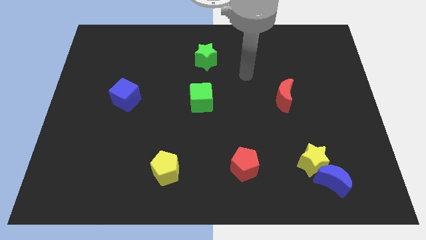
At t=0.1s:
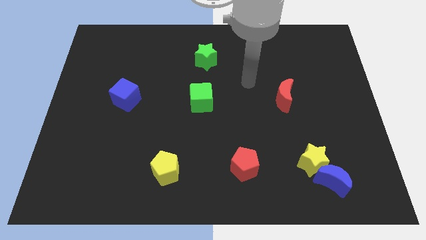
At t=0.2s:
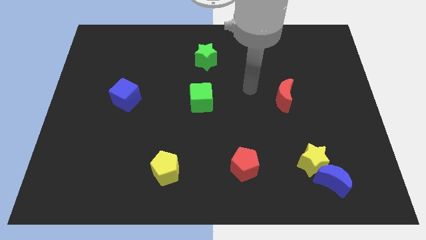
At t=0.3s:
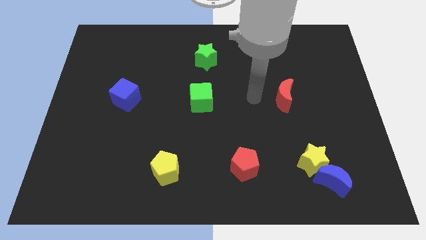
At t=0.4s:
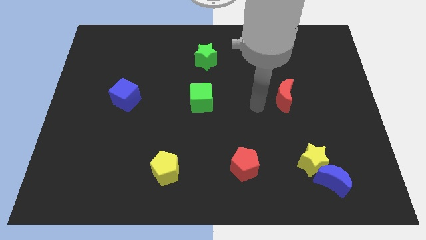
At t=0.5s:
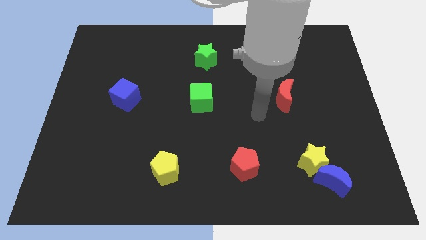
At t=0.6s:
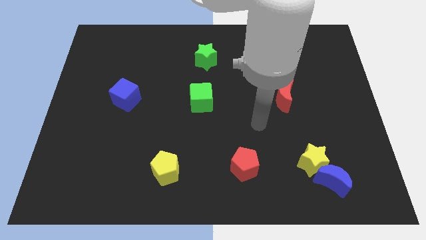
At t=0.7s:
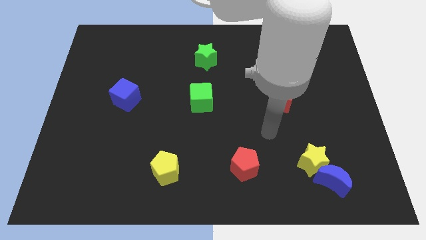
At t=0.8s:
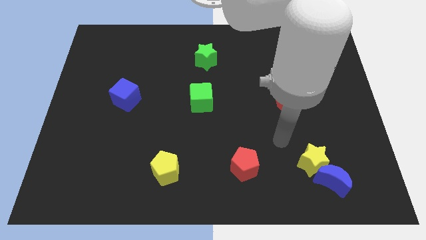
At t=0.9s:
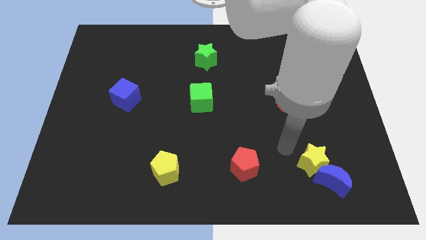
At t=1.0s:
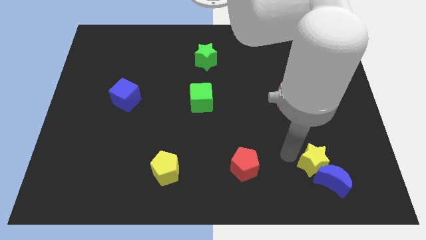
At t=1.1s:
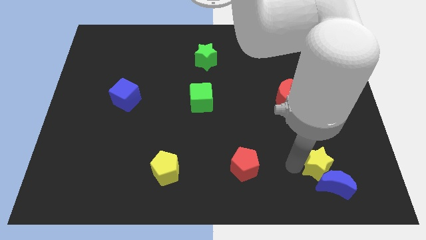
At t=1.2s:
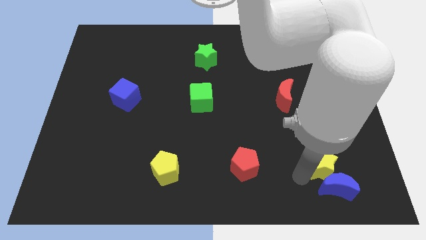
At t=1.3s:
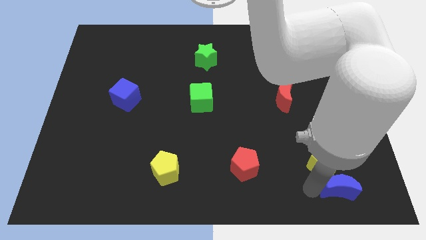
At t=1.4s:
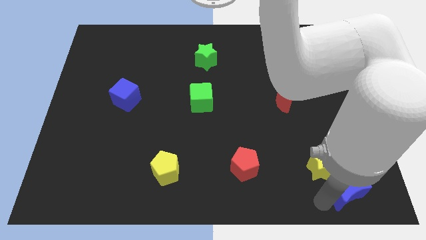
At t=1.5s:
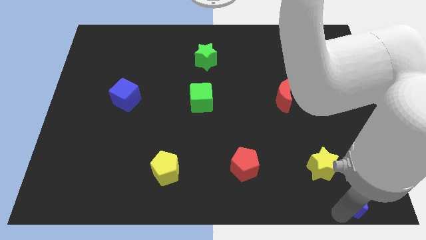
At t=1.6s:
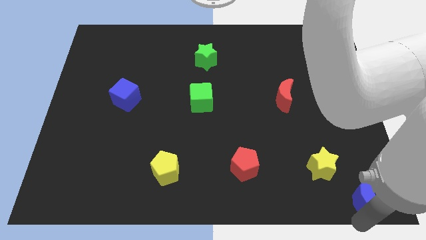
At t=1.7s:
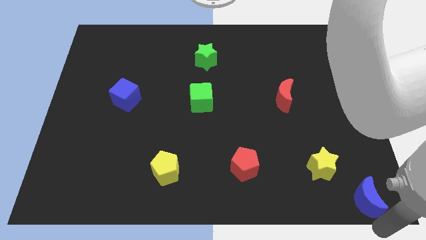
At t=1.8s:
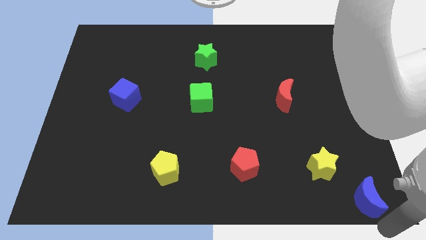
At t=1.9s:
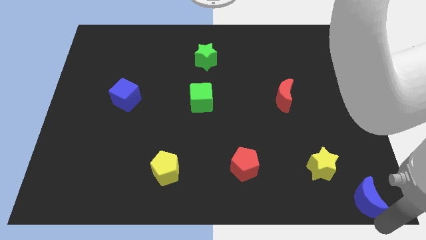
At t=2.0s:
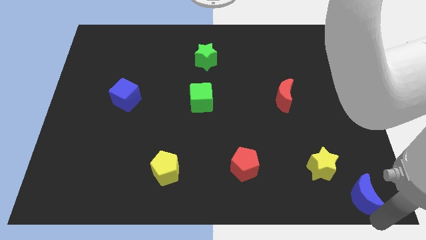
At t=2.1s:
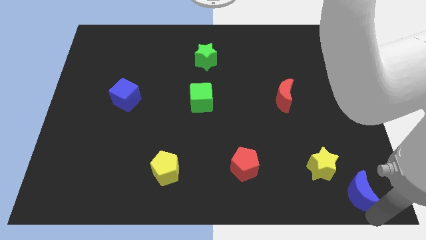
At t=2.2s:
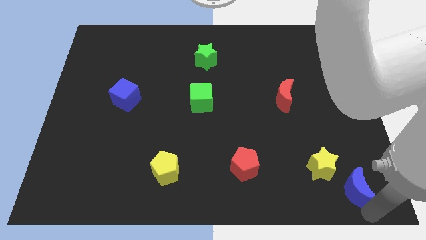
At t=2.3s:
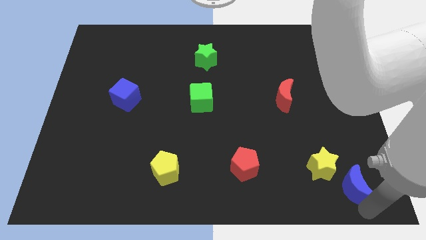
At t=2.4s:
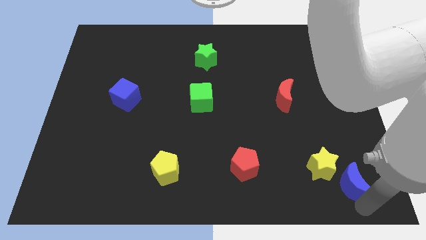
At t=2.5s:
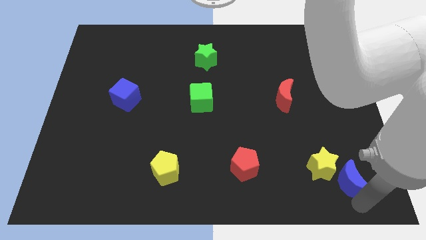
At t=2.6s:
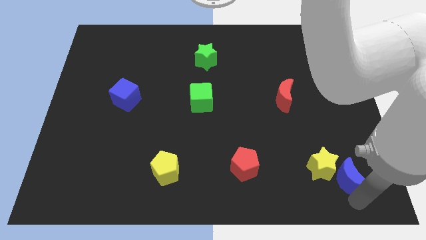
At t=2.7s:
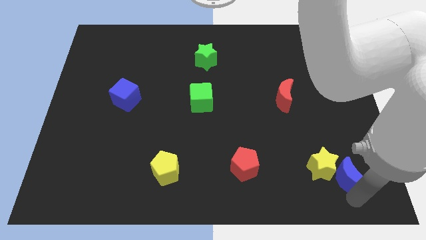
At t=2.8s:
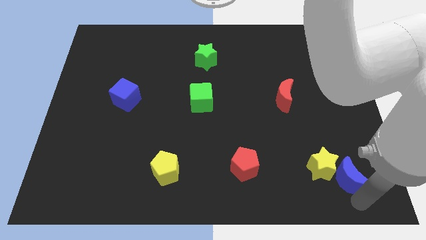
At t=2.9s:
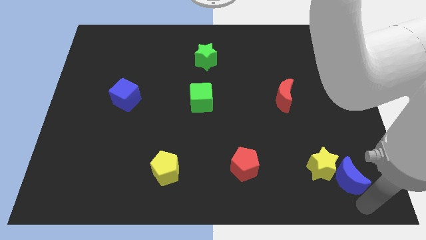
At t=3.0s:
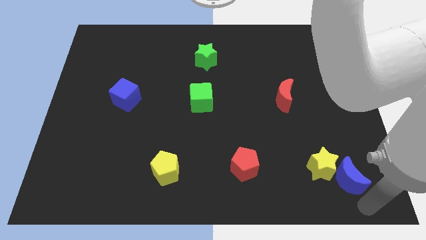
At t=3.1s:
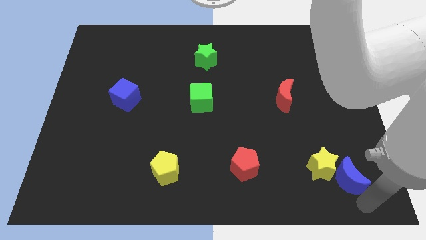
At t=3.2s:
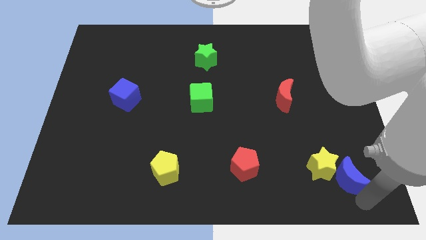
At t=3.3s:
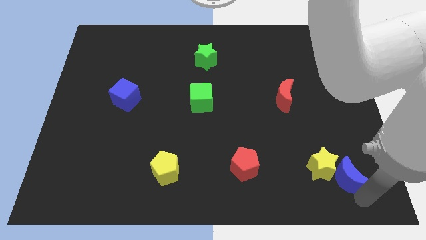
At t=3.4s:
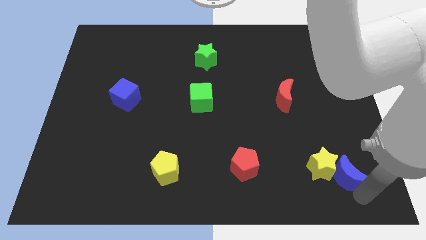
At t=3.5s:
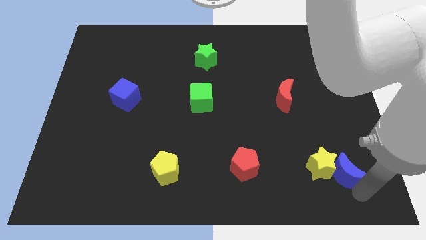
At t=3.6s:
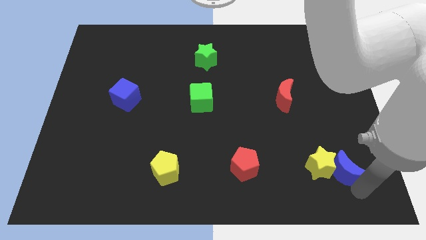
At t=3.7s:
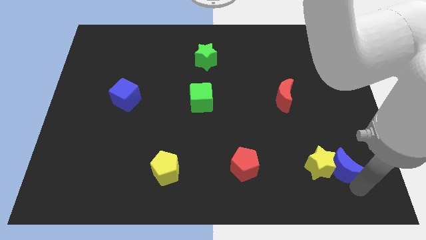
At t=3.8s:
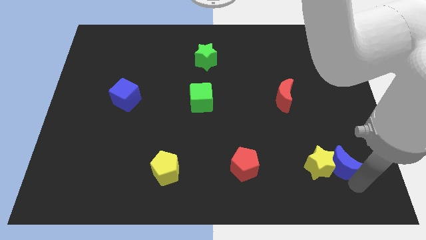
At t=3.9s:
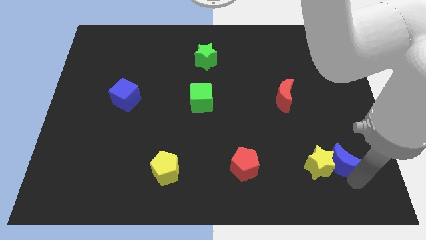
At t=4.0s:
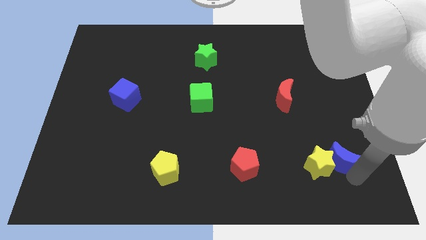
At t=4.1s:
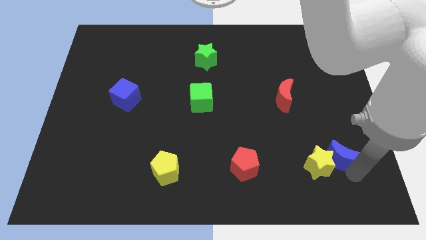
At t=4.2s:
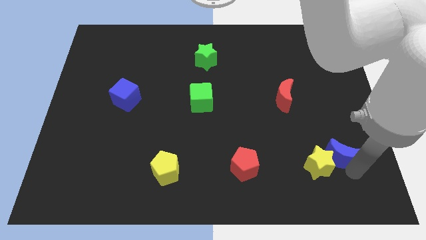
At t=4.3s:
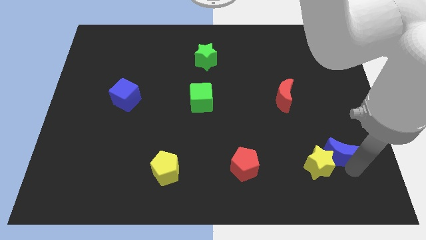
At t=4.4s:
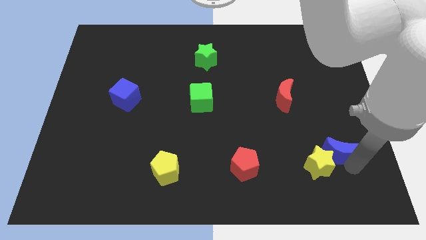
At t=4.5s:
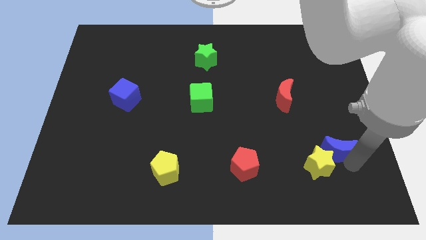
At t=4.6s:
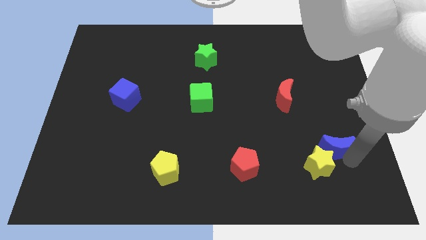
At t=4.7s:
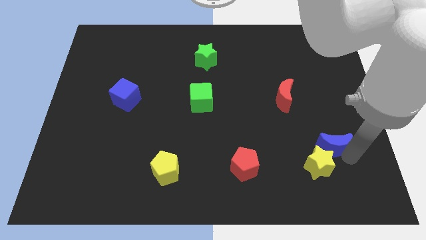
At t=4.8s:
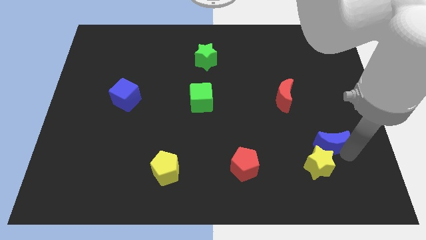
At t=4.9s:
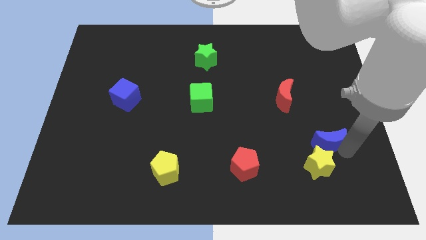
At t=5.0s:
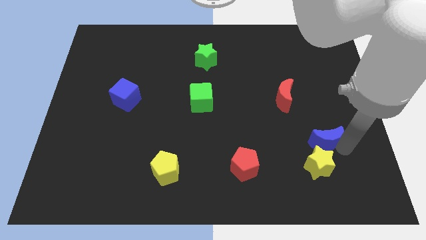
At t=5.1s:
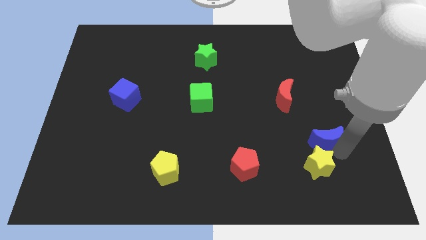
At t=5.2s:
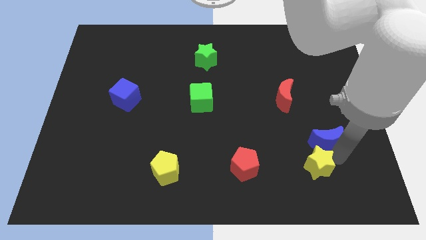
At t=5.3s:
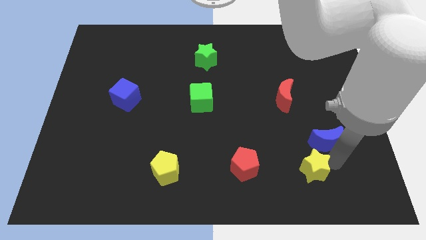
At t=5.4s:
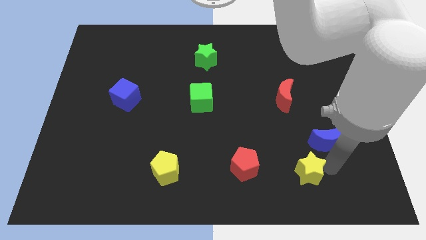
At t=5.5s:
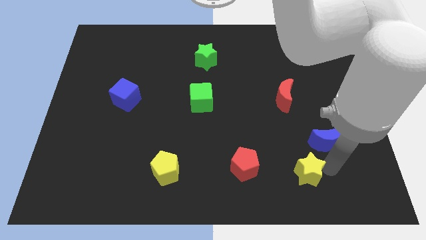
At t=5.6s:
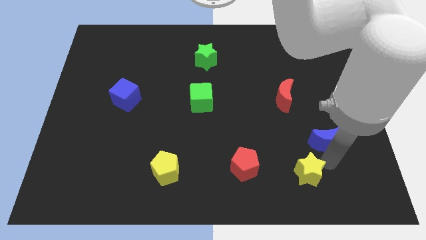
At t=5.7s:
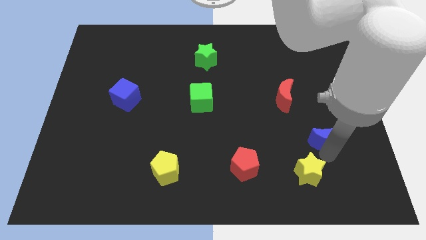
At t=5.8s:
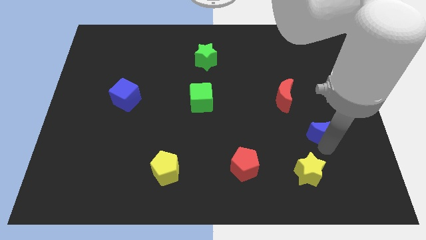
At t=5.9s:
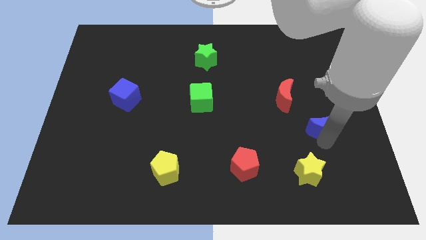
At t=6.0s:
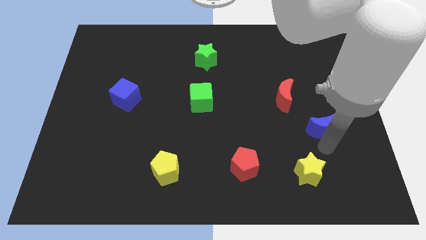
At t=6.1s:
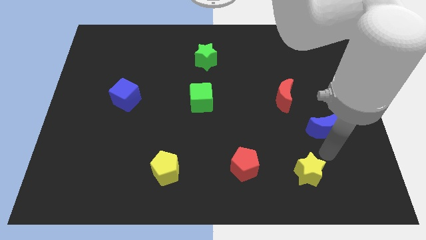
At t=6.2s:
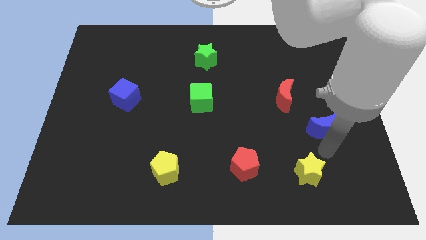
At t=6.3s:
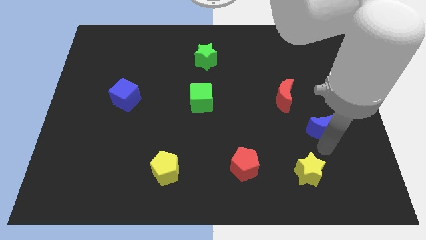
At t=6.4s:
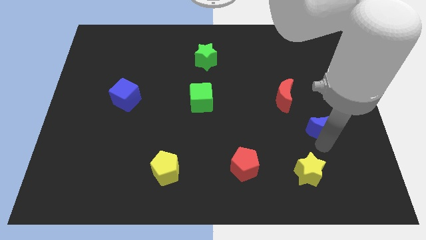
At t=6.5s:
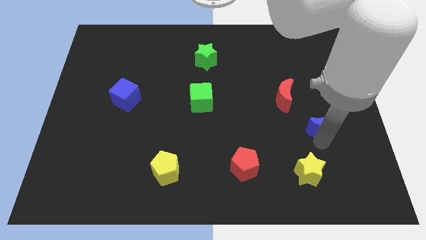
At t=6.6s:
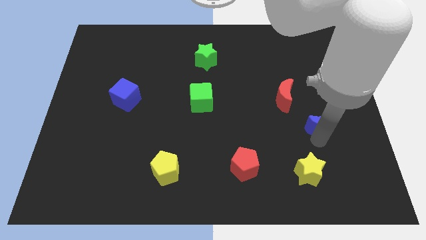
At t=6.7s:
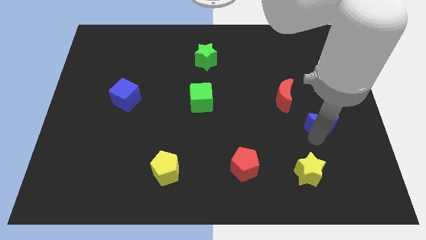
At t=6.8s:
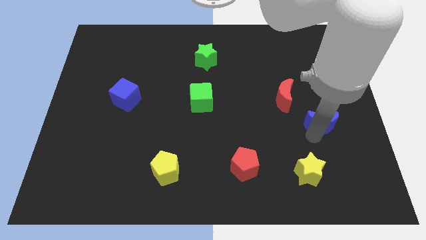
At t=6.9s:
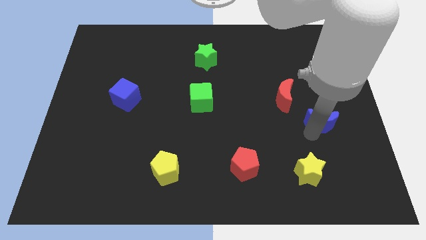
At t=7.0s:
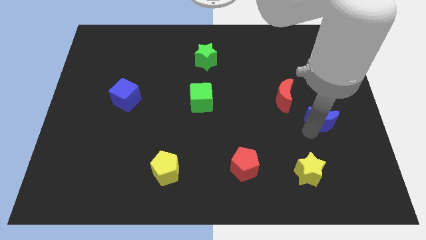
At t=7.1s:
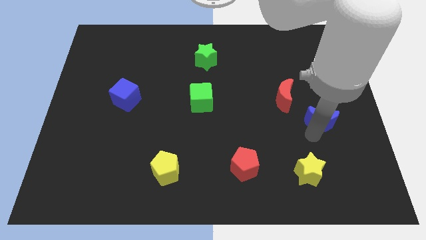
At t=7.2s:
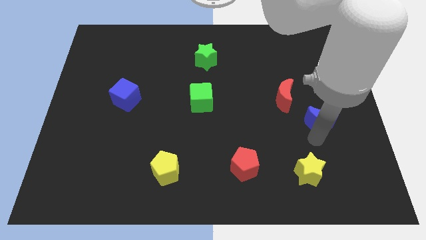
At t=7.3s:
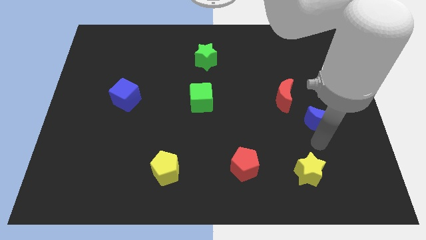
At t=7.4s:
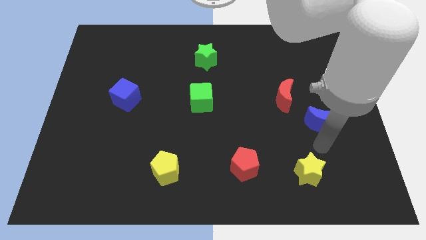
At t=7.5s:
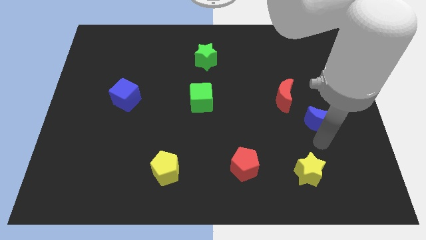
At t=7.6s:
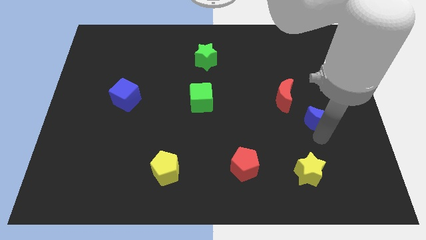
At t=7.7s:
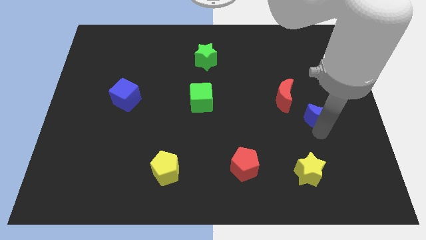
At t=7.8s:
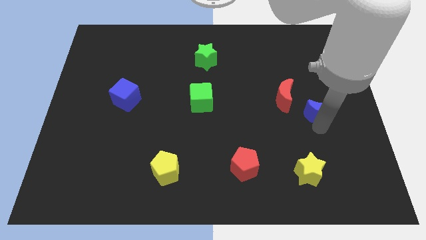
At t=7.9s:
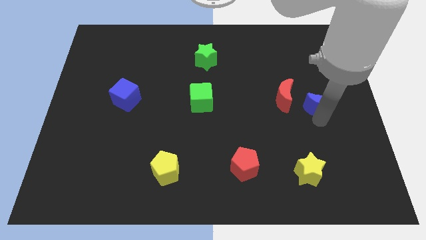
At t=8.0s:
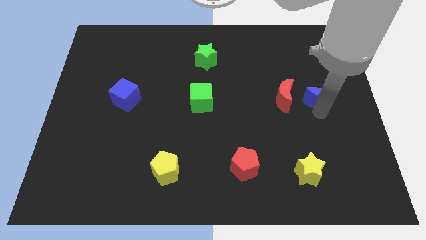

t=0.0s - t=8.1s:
push the blue moon up

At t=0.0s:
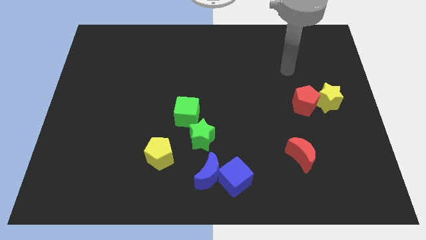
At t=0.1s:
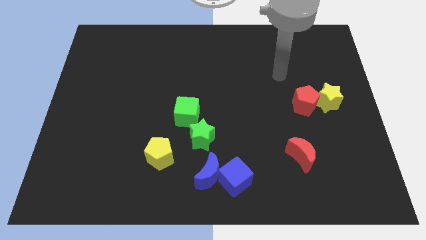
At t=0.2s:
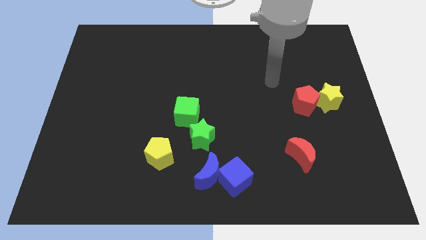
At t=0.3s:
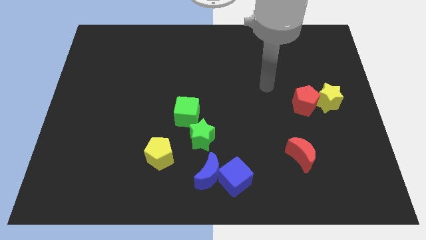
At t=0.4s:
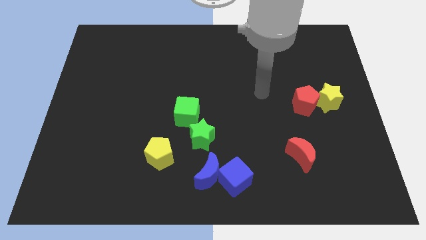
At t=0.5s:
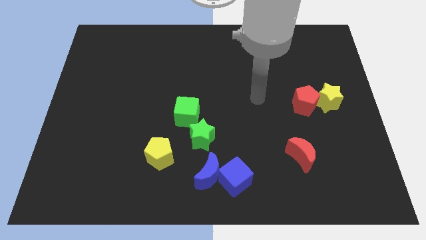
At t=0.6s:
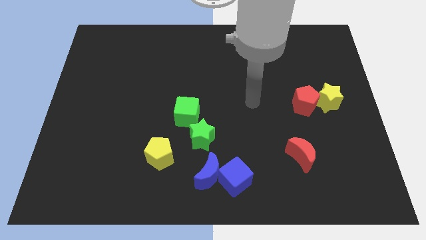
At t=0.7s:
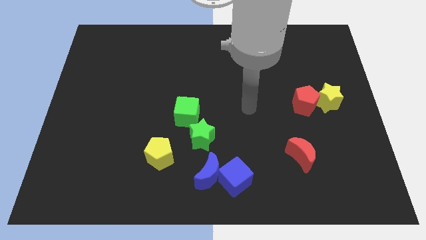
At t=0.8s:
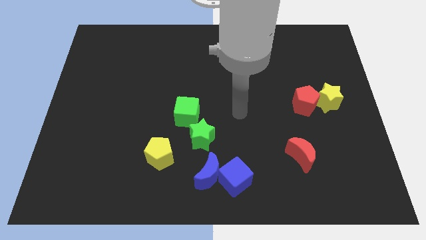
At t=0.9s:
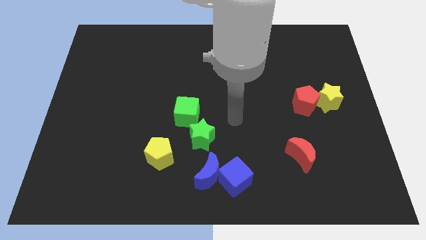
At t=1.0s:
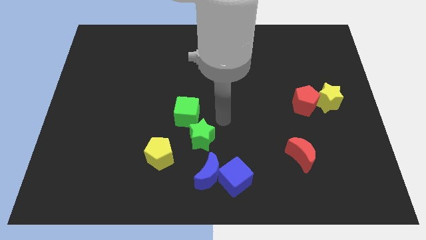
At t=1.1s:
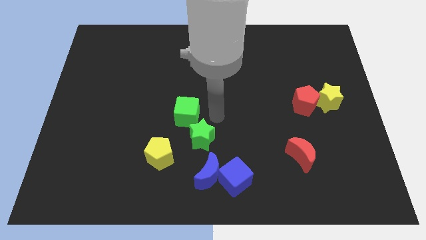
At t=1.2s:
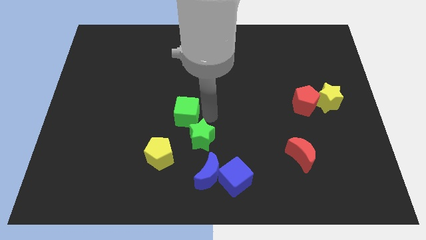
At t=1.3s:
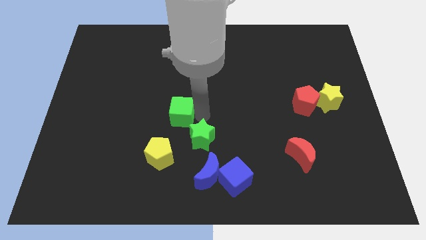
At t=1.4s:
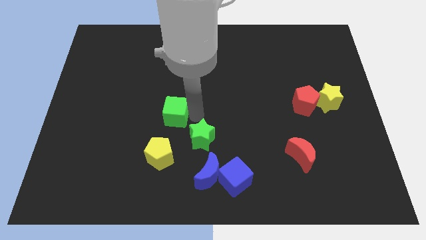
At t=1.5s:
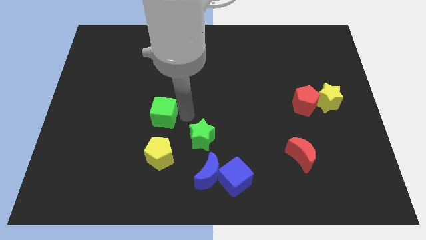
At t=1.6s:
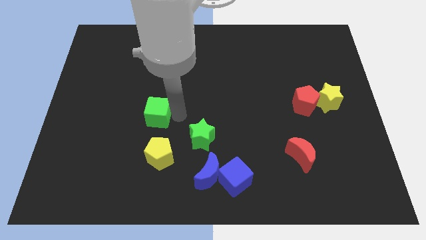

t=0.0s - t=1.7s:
push the green cube left somewhat
